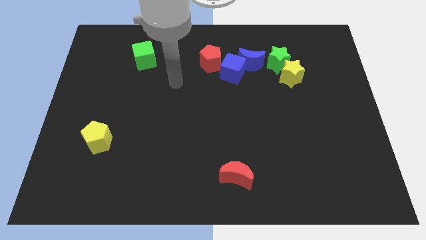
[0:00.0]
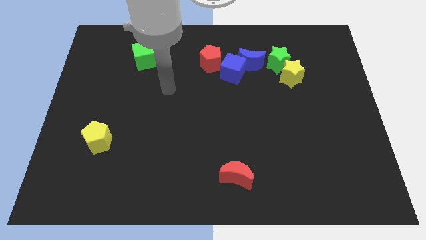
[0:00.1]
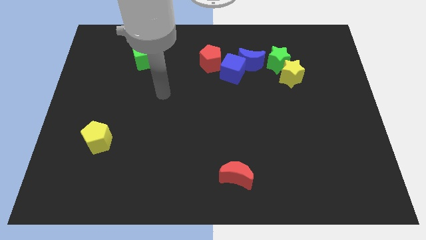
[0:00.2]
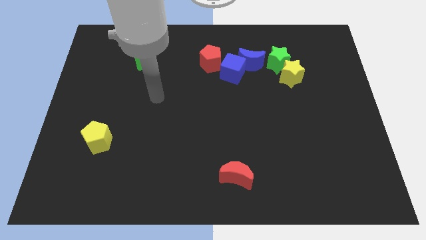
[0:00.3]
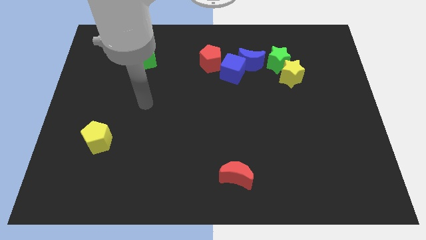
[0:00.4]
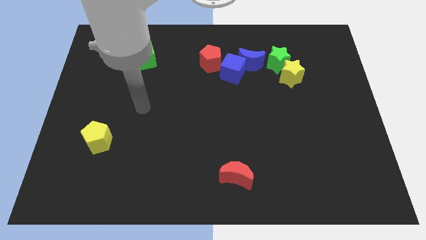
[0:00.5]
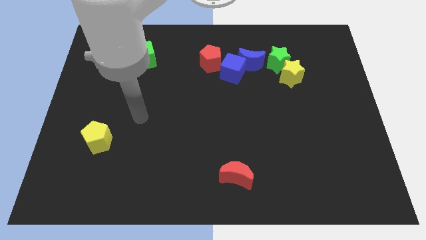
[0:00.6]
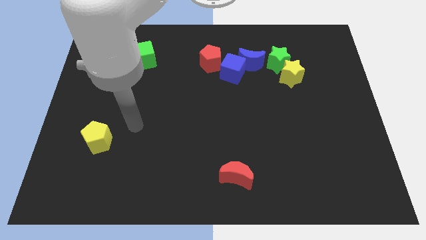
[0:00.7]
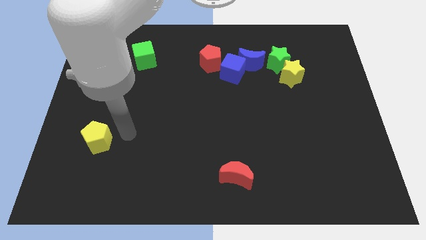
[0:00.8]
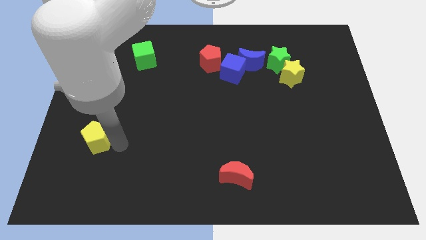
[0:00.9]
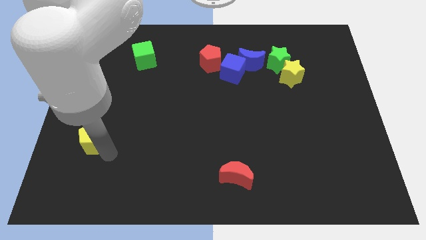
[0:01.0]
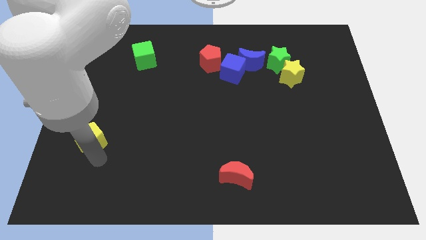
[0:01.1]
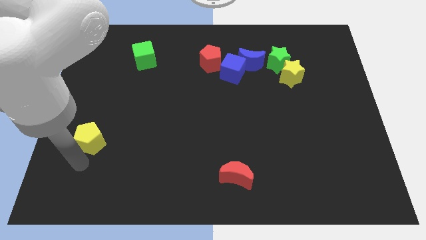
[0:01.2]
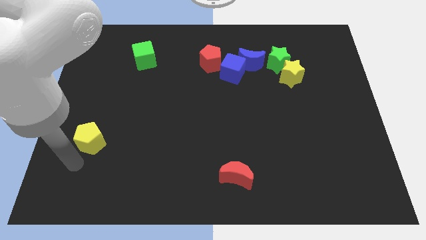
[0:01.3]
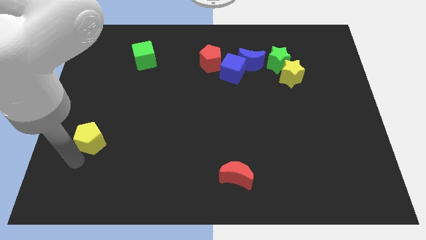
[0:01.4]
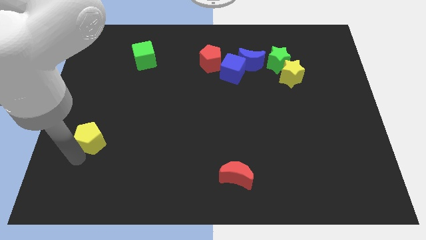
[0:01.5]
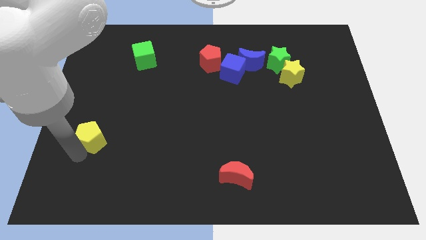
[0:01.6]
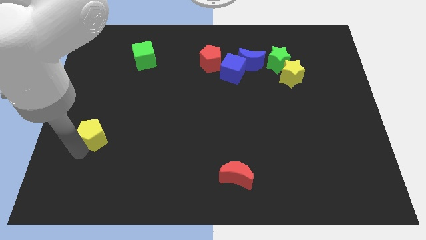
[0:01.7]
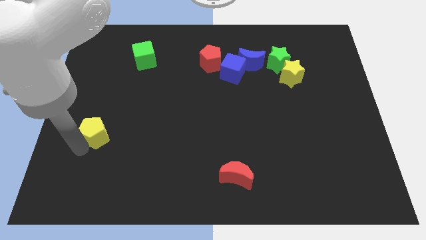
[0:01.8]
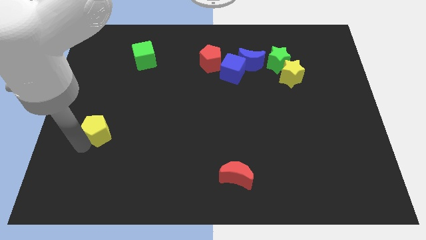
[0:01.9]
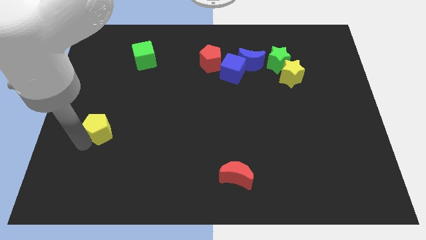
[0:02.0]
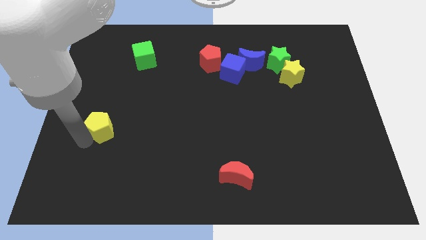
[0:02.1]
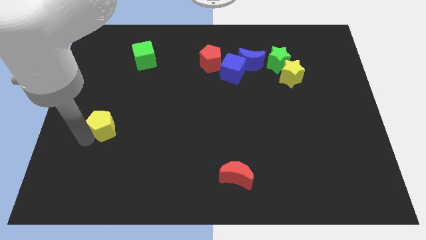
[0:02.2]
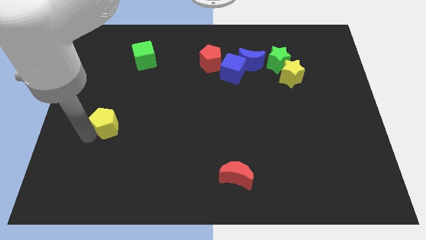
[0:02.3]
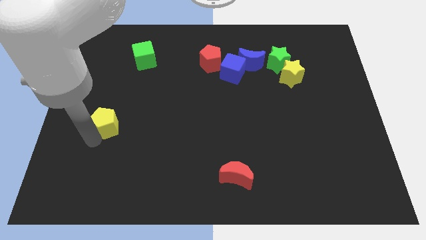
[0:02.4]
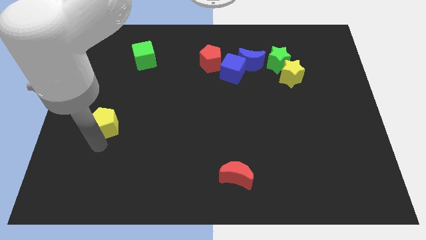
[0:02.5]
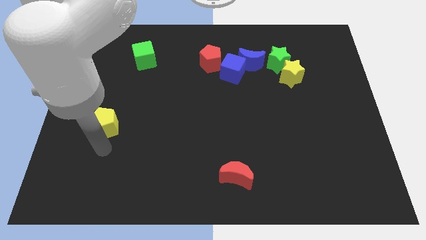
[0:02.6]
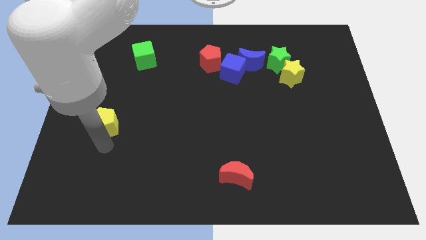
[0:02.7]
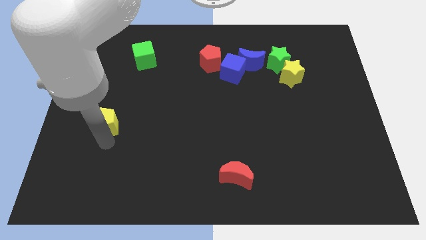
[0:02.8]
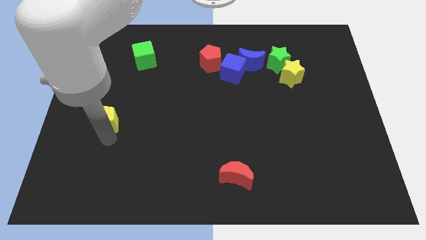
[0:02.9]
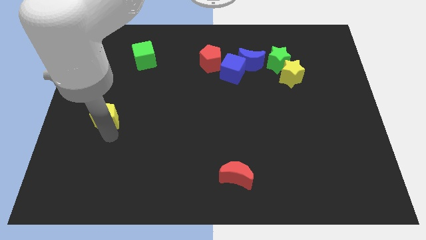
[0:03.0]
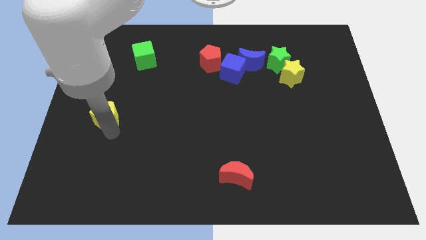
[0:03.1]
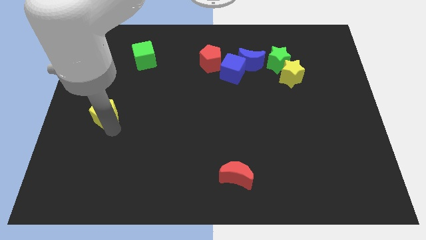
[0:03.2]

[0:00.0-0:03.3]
slide the yellow pentagon somewhat up

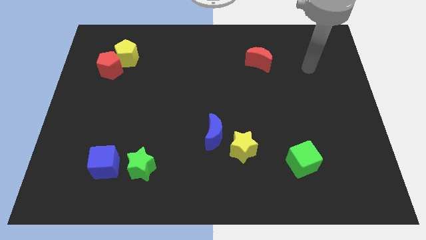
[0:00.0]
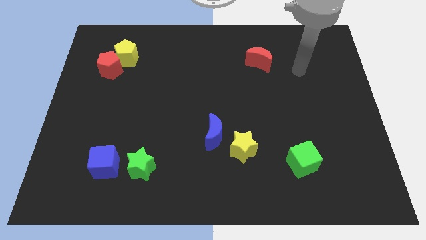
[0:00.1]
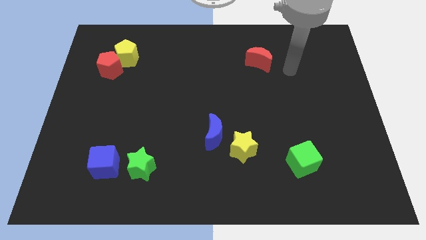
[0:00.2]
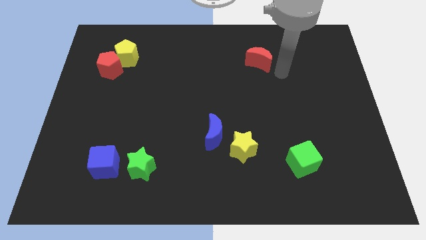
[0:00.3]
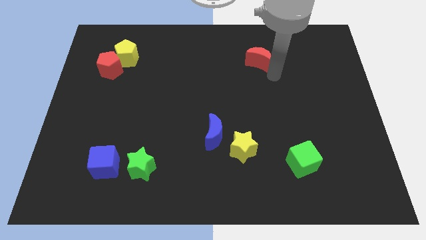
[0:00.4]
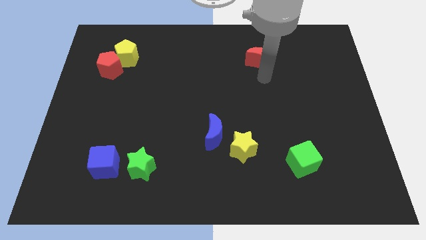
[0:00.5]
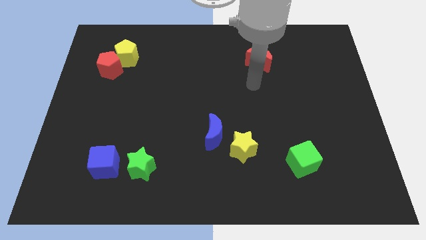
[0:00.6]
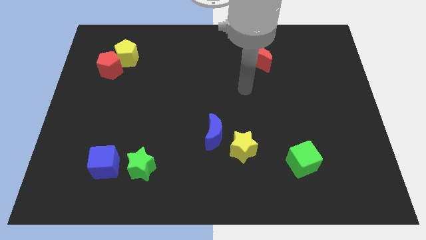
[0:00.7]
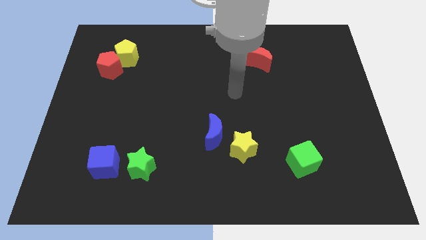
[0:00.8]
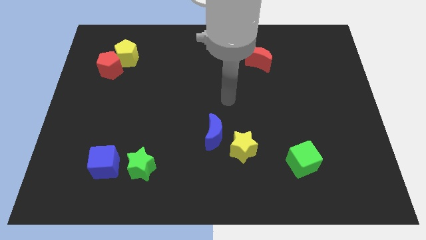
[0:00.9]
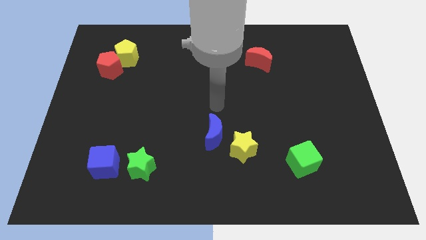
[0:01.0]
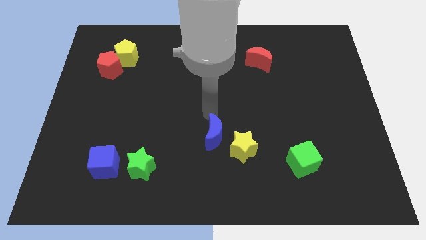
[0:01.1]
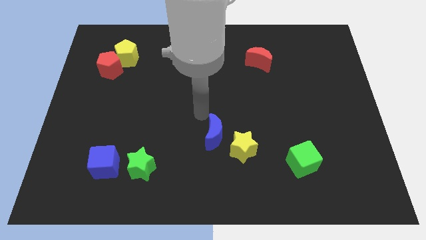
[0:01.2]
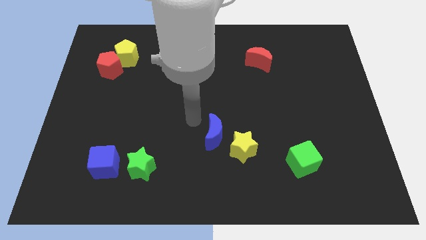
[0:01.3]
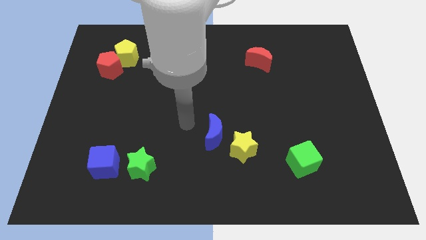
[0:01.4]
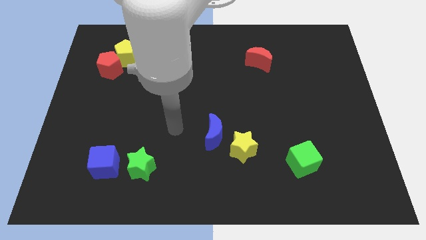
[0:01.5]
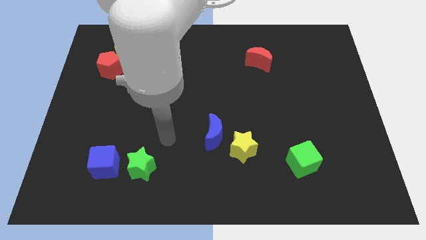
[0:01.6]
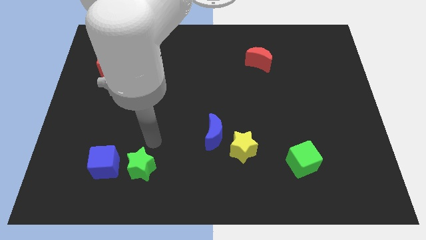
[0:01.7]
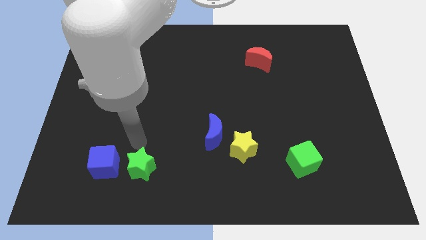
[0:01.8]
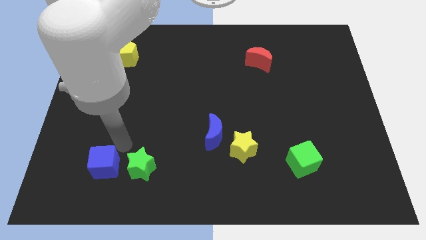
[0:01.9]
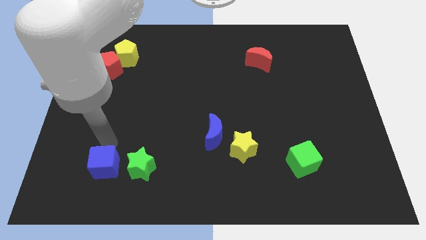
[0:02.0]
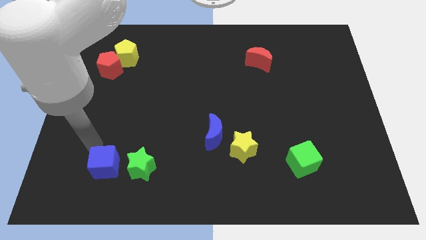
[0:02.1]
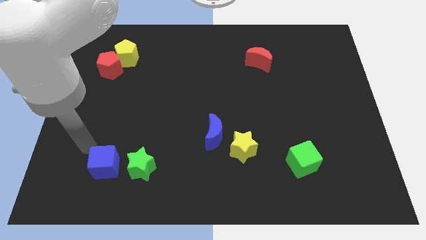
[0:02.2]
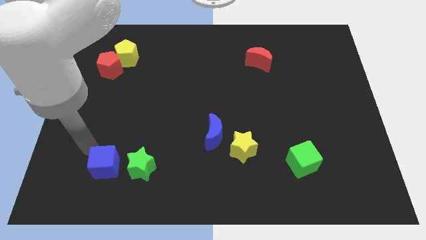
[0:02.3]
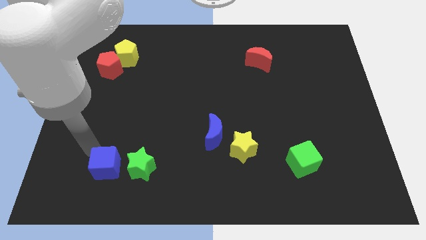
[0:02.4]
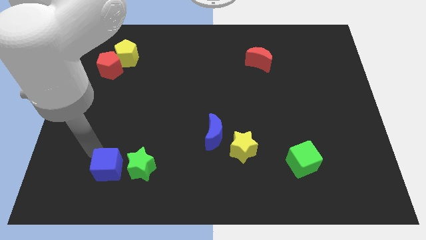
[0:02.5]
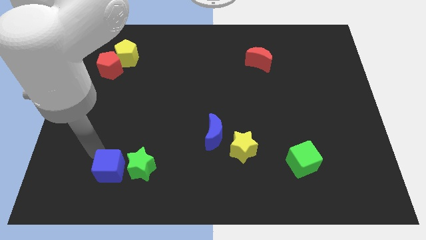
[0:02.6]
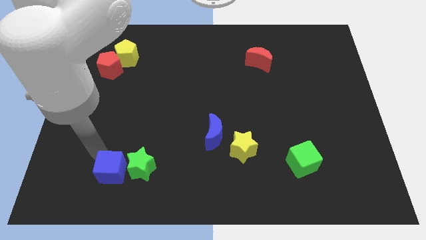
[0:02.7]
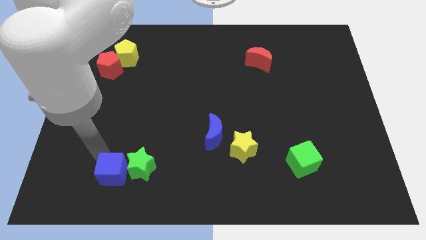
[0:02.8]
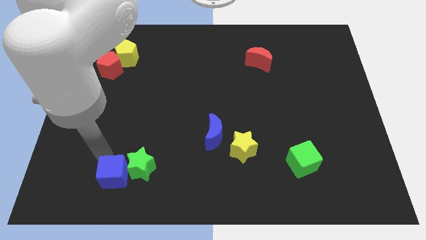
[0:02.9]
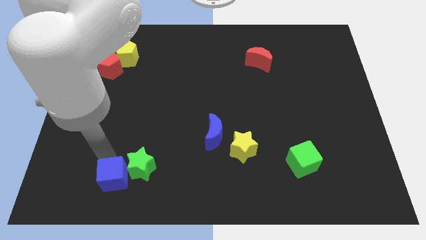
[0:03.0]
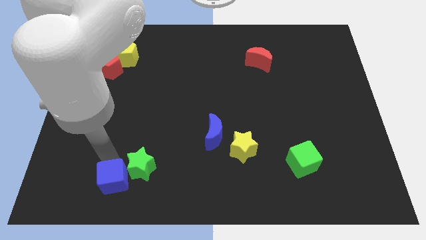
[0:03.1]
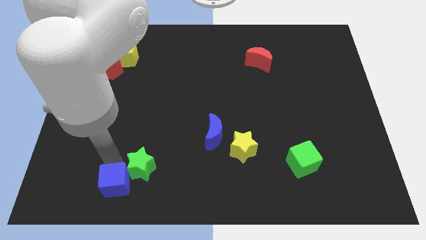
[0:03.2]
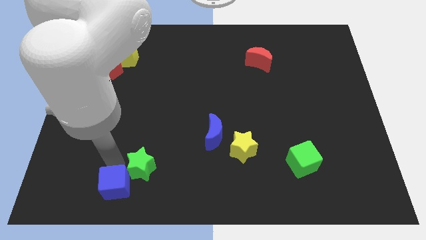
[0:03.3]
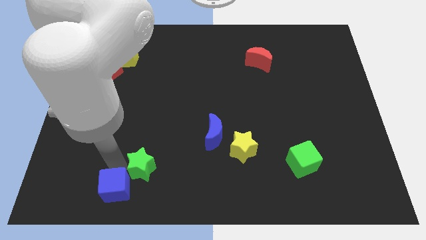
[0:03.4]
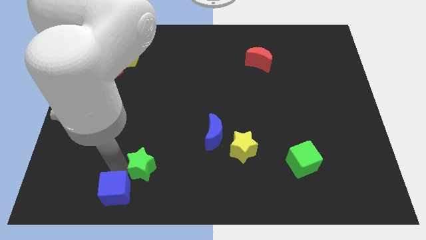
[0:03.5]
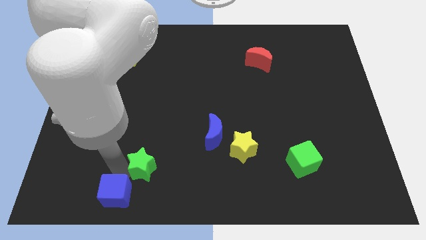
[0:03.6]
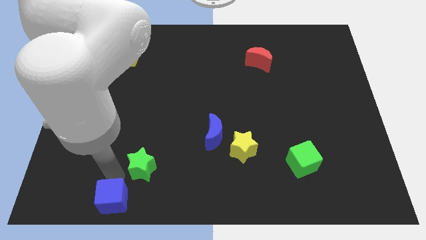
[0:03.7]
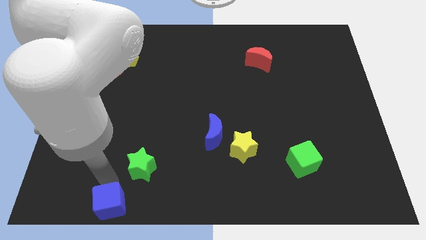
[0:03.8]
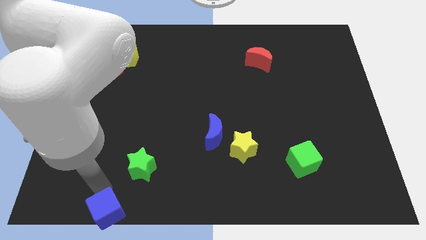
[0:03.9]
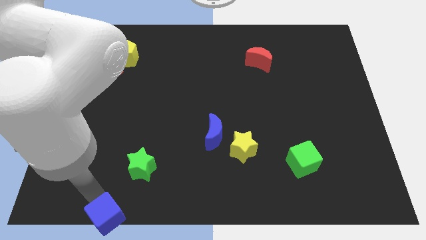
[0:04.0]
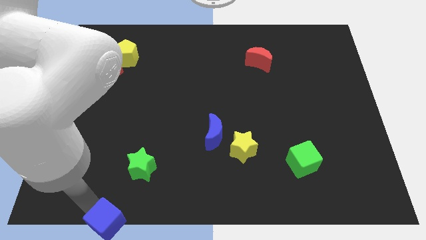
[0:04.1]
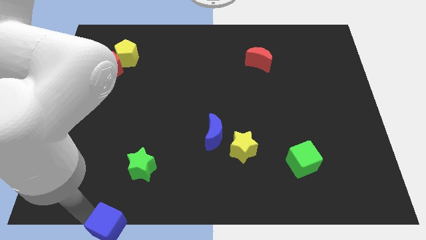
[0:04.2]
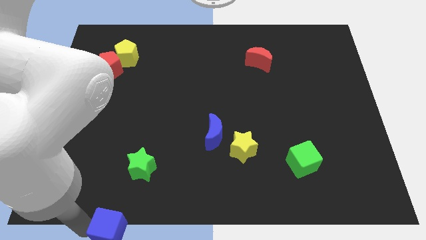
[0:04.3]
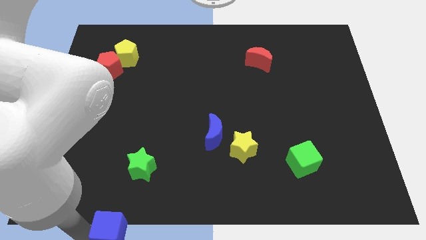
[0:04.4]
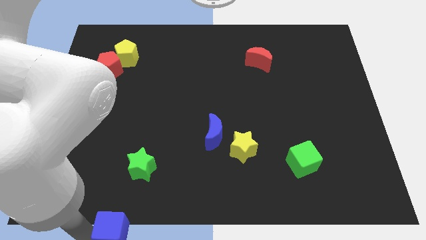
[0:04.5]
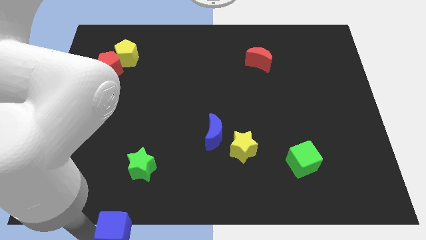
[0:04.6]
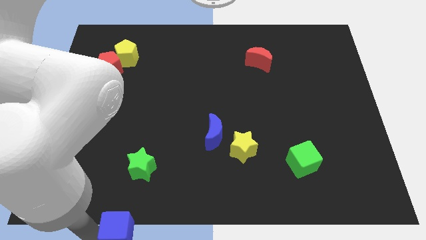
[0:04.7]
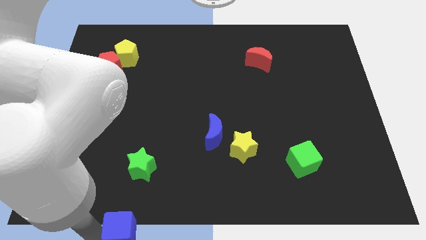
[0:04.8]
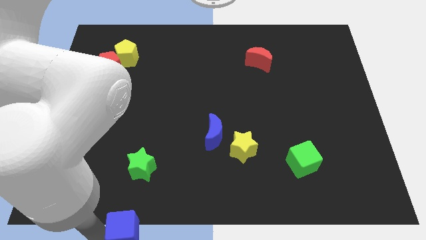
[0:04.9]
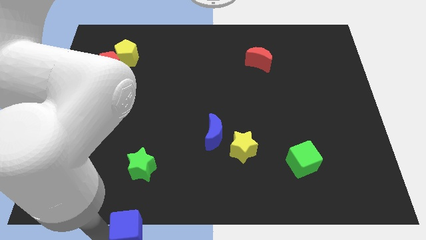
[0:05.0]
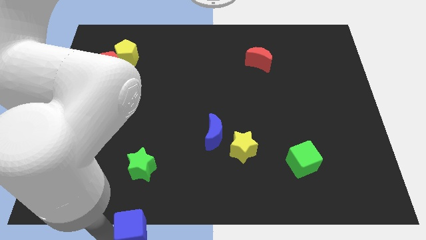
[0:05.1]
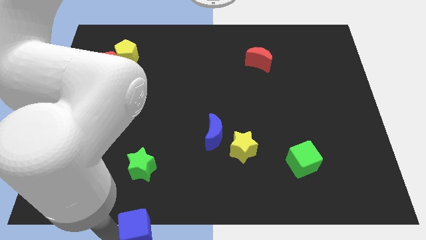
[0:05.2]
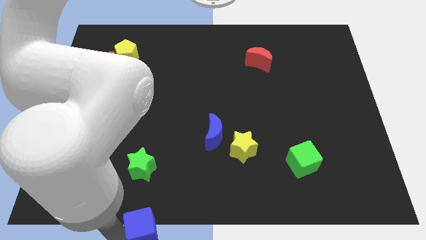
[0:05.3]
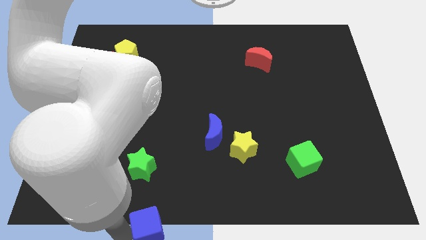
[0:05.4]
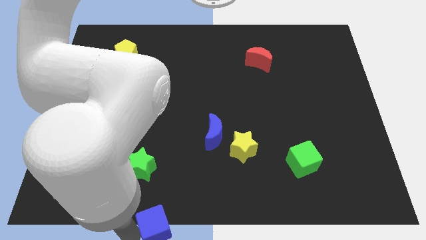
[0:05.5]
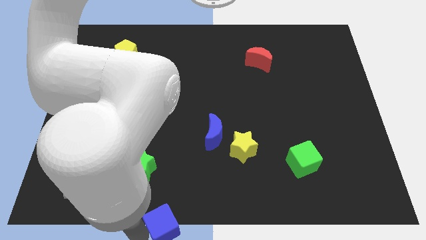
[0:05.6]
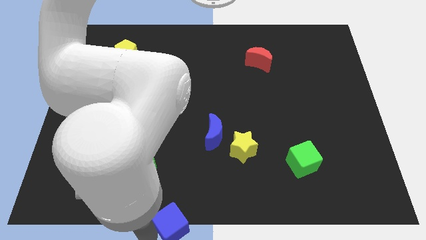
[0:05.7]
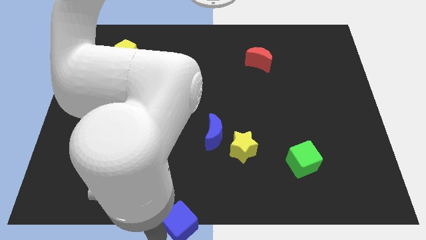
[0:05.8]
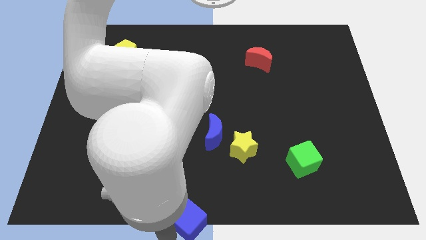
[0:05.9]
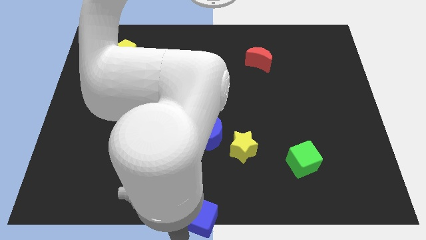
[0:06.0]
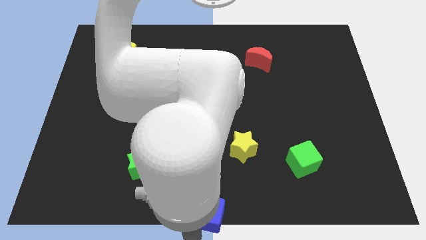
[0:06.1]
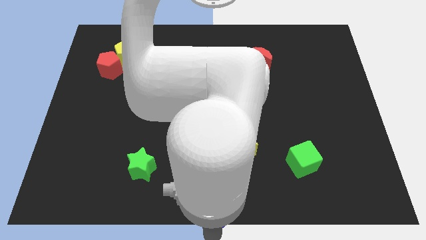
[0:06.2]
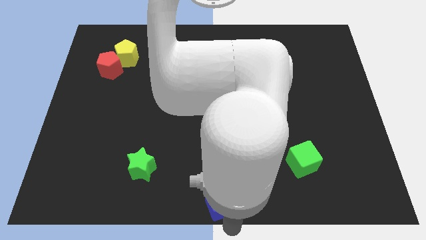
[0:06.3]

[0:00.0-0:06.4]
slide the blue cube to the right
